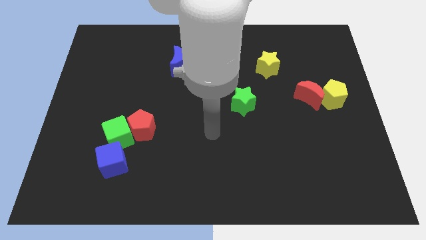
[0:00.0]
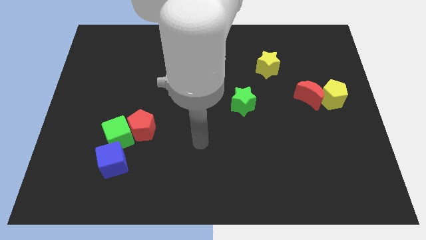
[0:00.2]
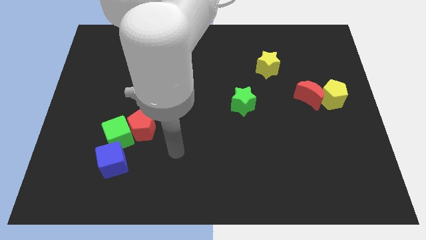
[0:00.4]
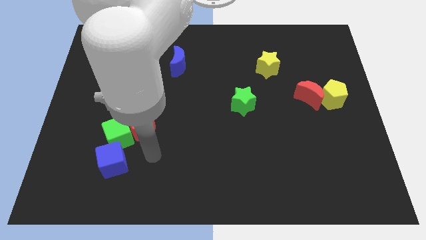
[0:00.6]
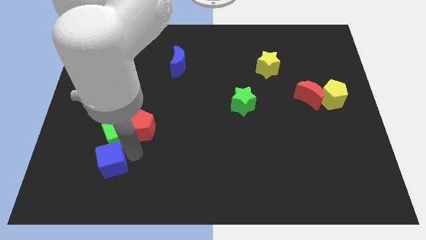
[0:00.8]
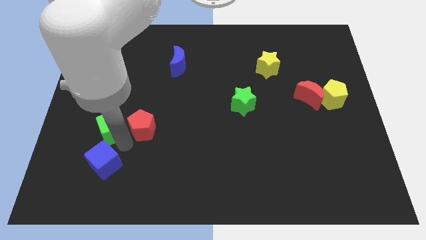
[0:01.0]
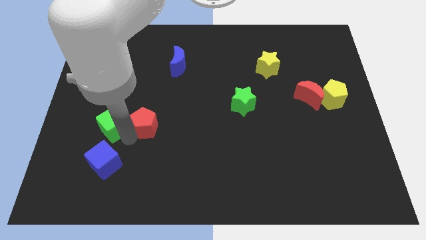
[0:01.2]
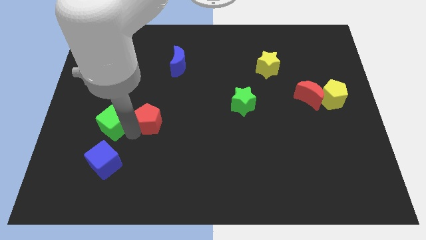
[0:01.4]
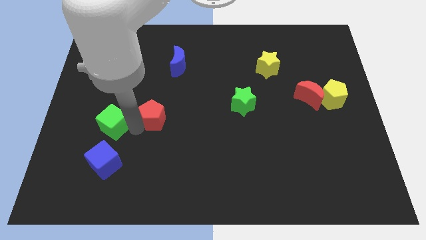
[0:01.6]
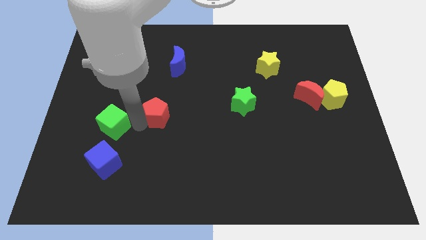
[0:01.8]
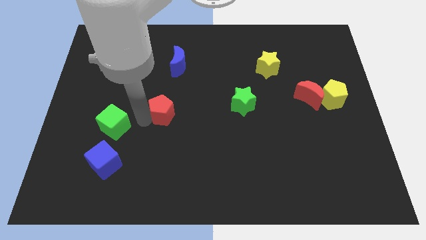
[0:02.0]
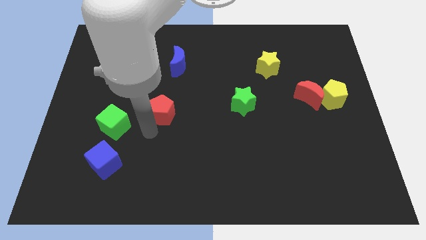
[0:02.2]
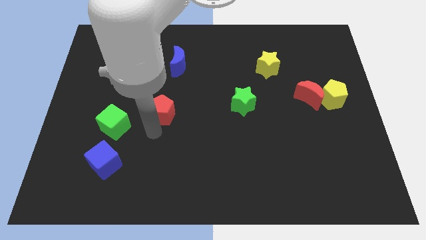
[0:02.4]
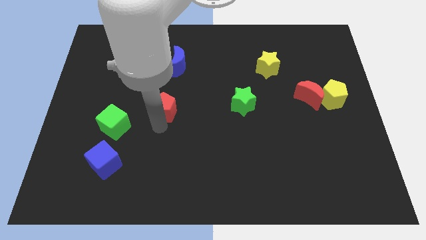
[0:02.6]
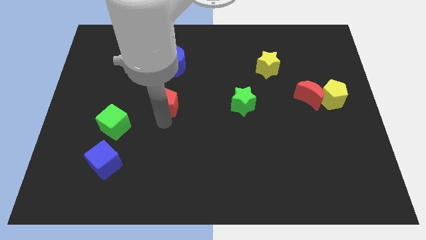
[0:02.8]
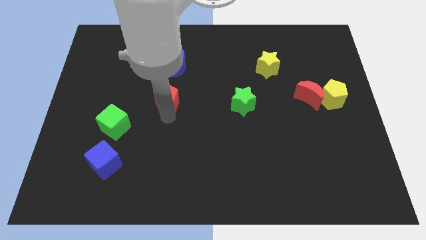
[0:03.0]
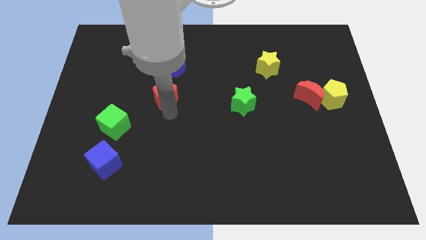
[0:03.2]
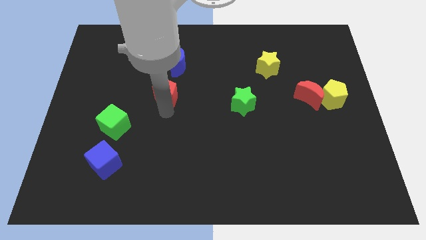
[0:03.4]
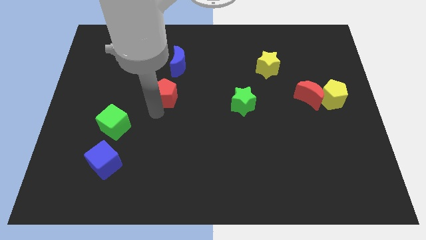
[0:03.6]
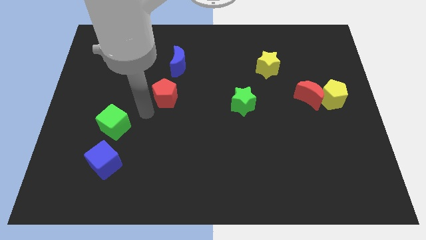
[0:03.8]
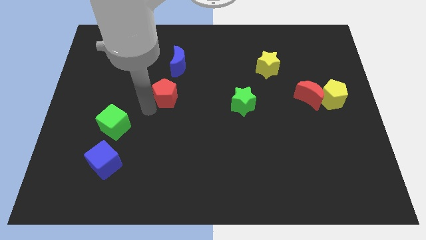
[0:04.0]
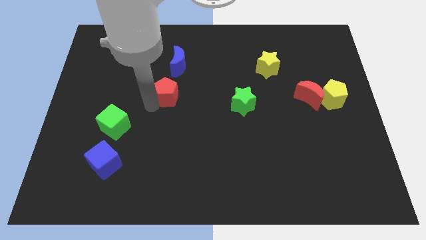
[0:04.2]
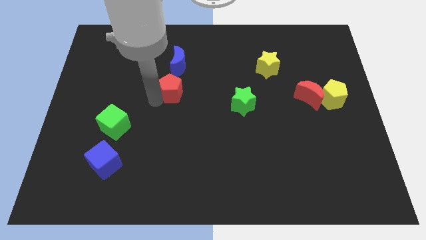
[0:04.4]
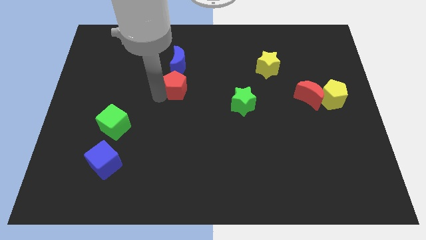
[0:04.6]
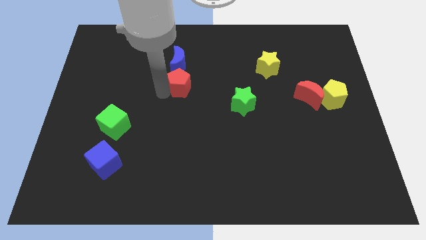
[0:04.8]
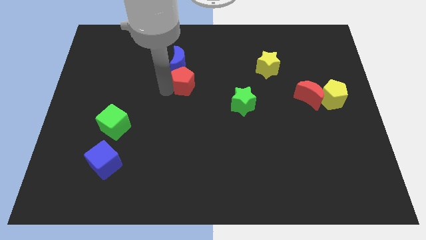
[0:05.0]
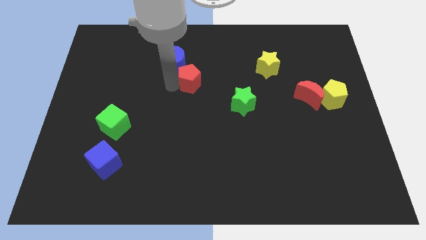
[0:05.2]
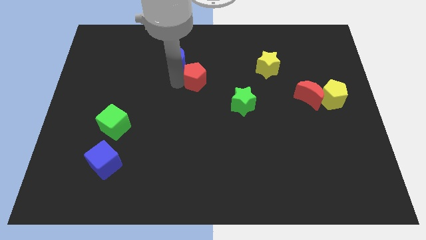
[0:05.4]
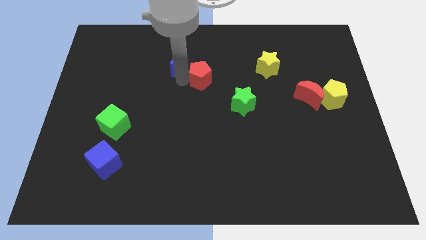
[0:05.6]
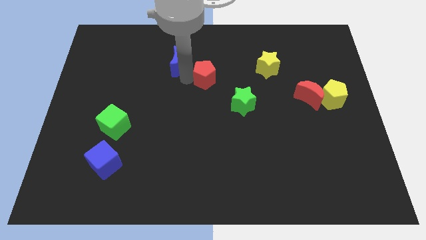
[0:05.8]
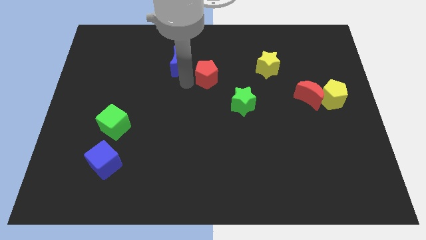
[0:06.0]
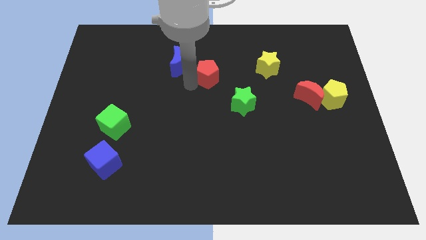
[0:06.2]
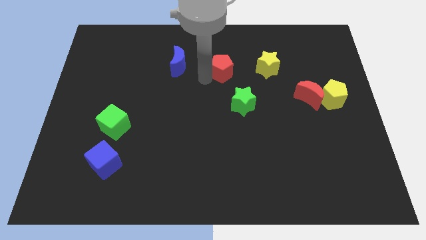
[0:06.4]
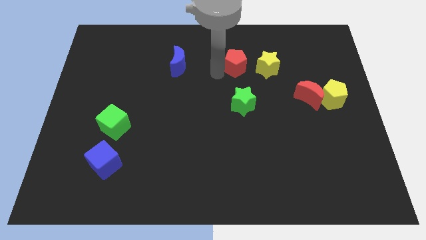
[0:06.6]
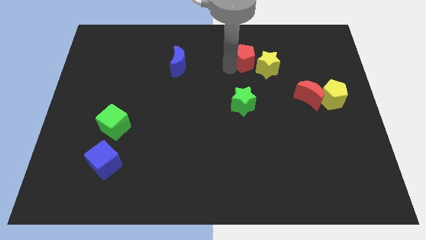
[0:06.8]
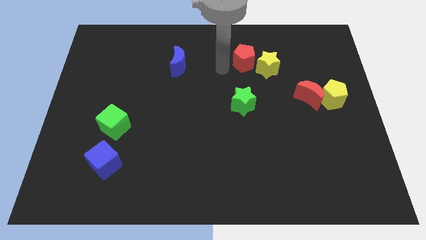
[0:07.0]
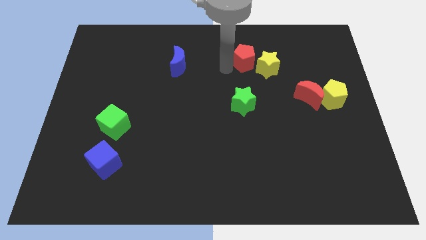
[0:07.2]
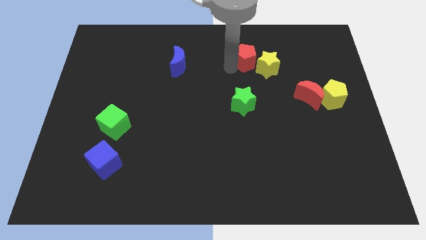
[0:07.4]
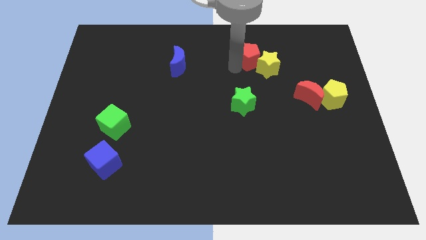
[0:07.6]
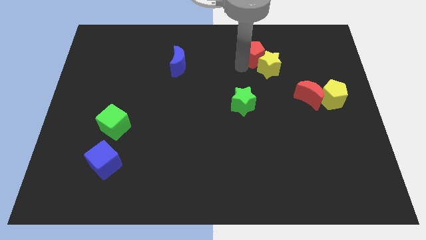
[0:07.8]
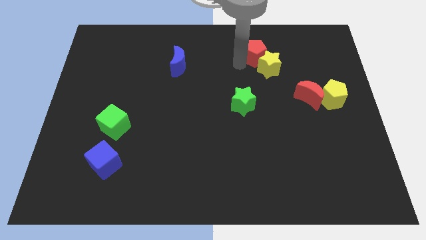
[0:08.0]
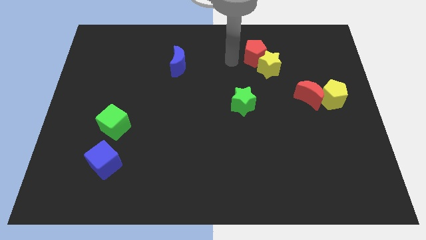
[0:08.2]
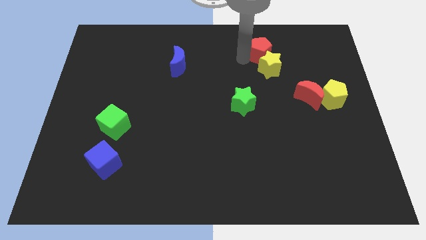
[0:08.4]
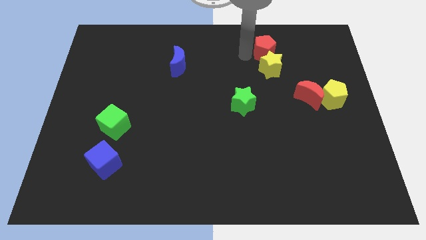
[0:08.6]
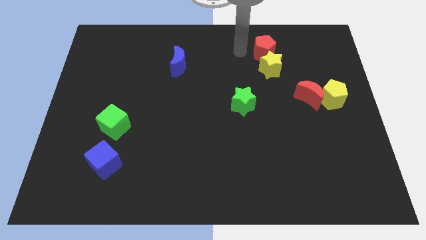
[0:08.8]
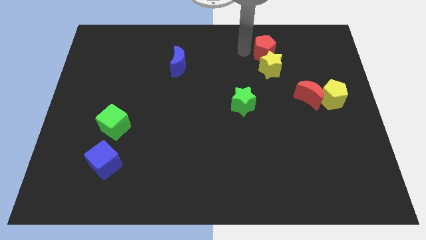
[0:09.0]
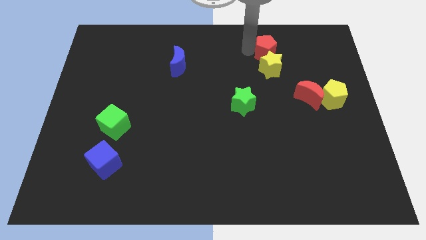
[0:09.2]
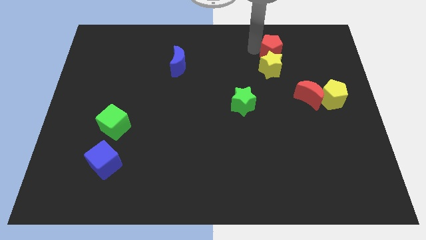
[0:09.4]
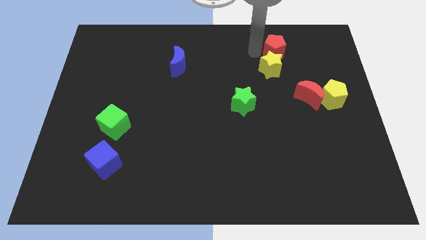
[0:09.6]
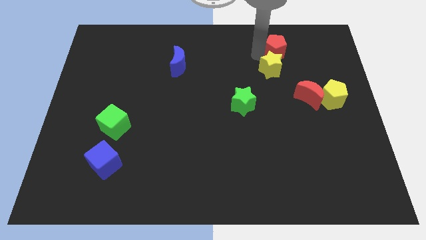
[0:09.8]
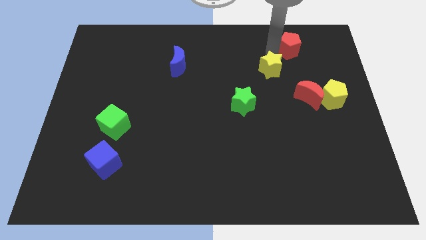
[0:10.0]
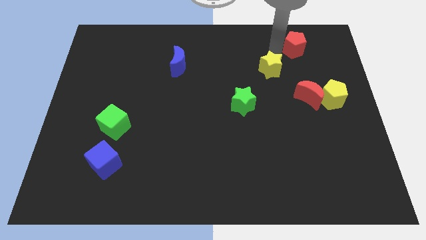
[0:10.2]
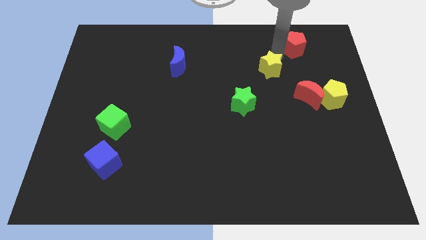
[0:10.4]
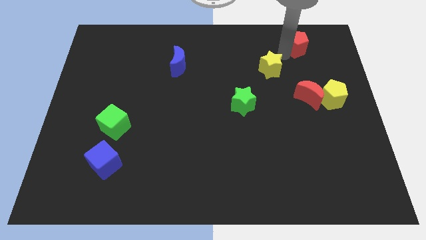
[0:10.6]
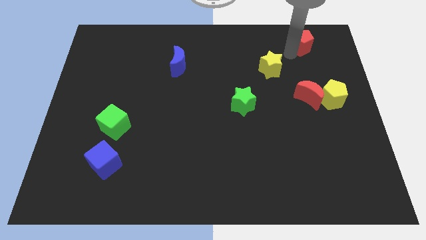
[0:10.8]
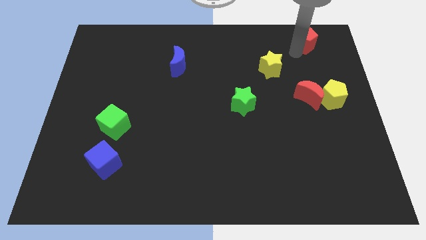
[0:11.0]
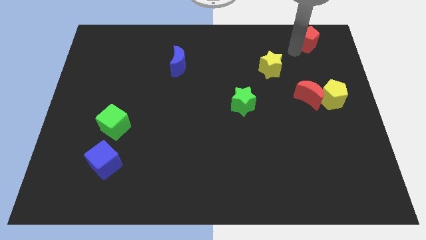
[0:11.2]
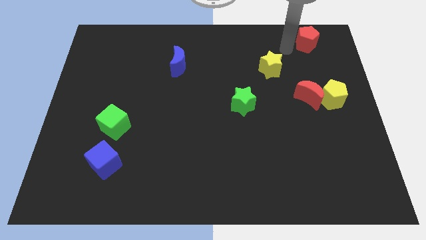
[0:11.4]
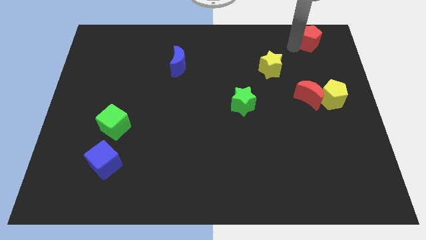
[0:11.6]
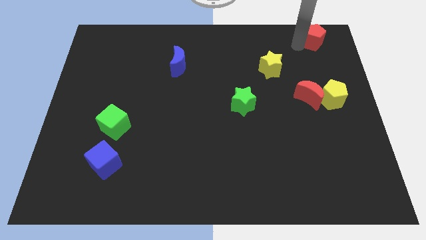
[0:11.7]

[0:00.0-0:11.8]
push the red pentagon to the top right of the board
